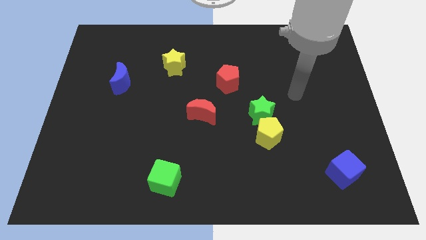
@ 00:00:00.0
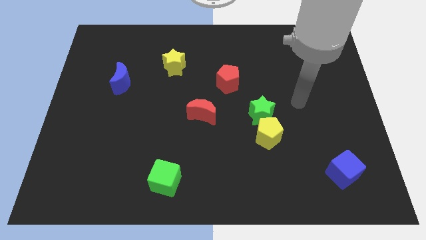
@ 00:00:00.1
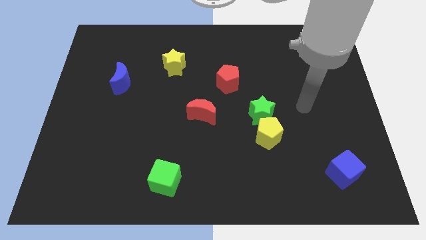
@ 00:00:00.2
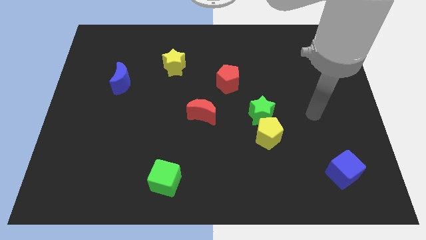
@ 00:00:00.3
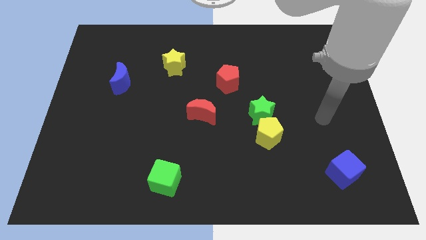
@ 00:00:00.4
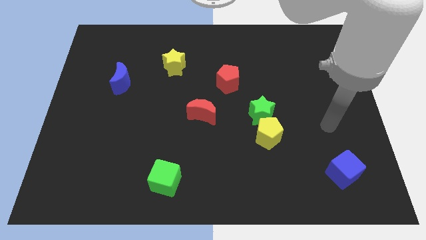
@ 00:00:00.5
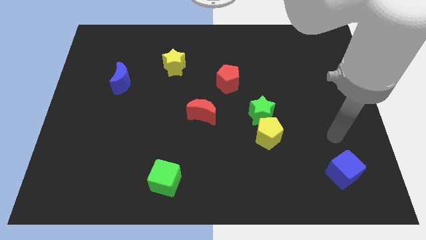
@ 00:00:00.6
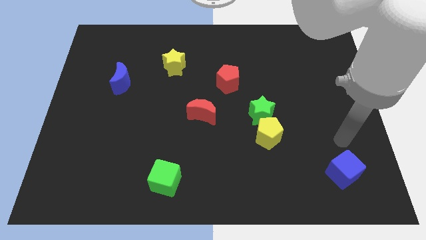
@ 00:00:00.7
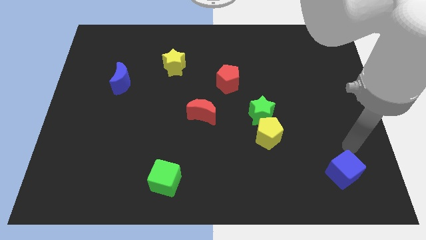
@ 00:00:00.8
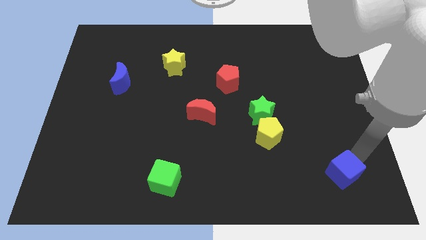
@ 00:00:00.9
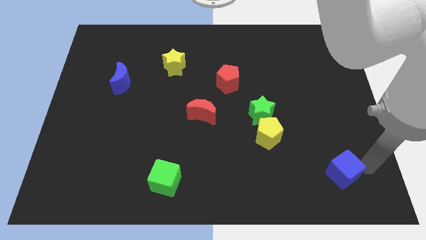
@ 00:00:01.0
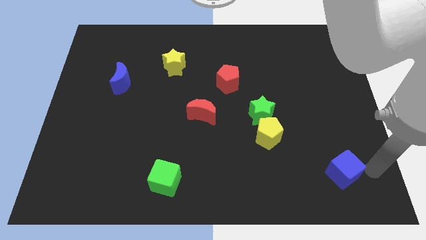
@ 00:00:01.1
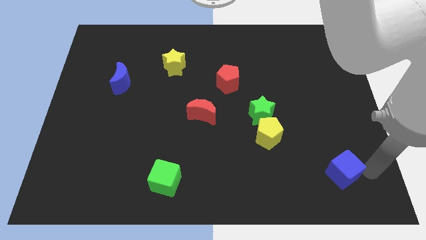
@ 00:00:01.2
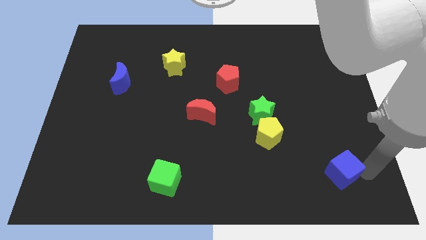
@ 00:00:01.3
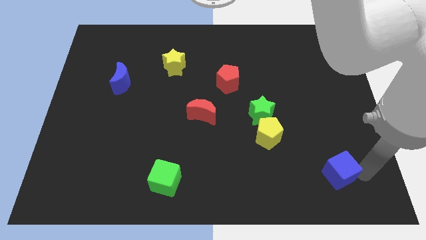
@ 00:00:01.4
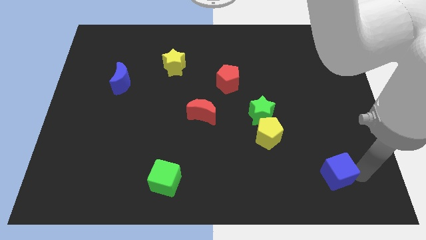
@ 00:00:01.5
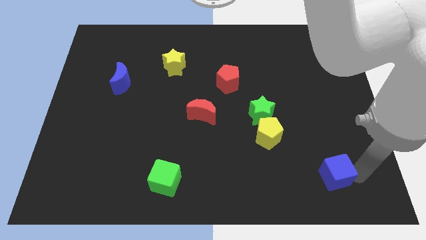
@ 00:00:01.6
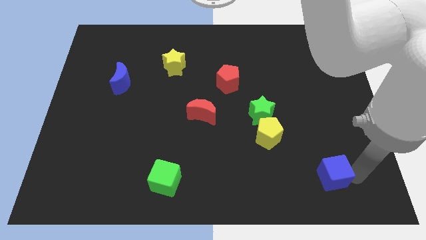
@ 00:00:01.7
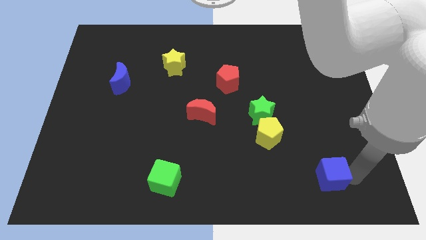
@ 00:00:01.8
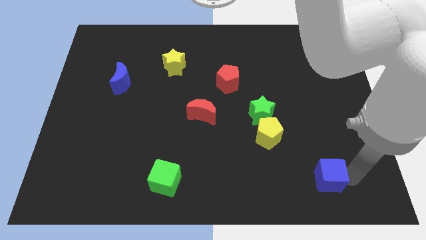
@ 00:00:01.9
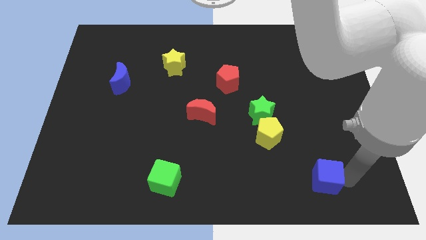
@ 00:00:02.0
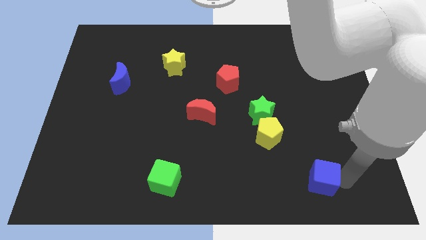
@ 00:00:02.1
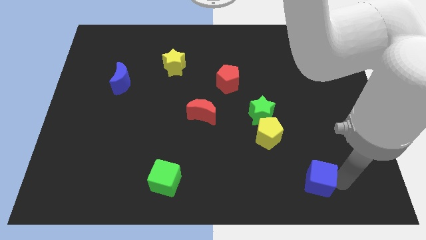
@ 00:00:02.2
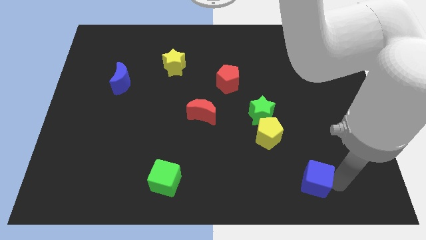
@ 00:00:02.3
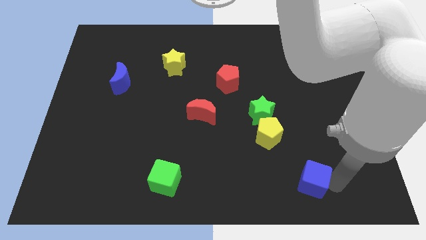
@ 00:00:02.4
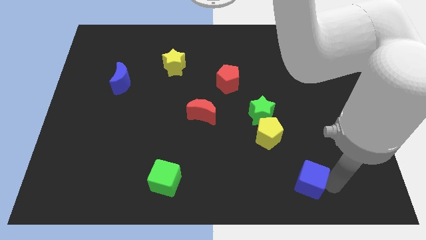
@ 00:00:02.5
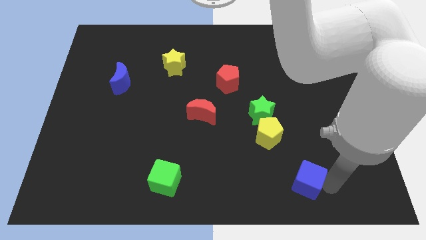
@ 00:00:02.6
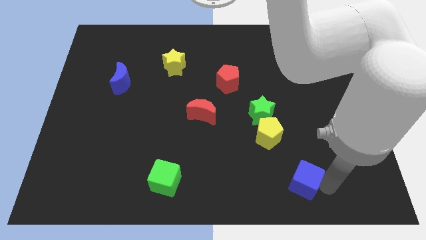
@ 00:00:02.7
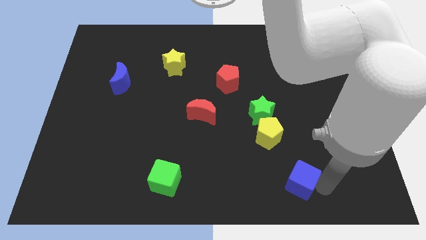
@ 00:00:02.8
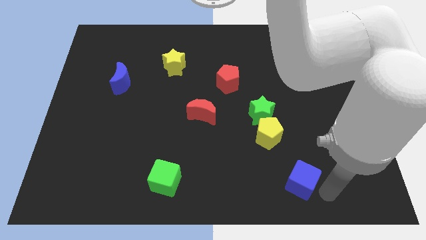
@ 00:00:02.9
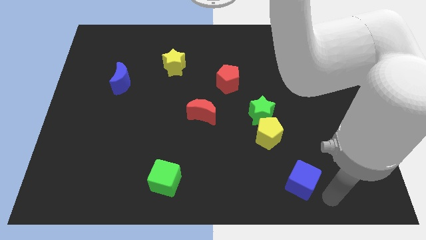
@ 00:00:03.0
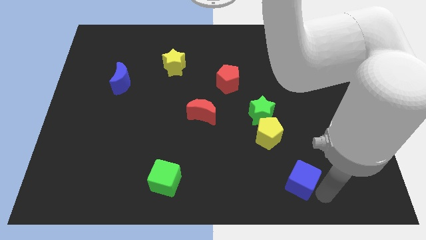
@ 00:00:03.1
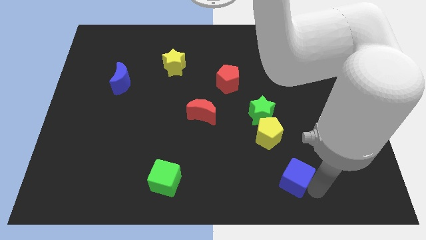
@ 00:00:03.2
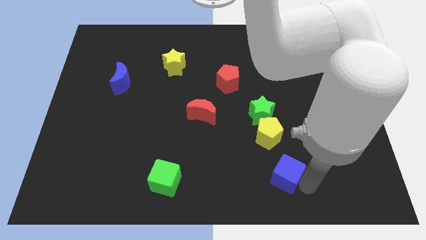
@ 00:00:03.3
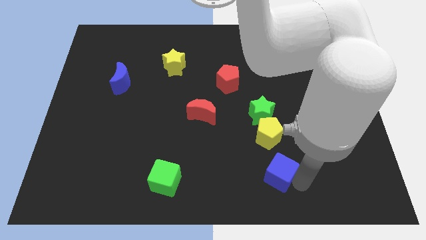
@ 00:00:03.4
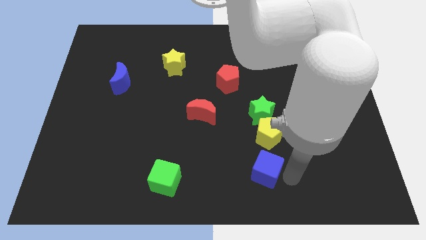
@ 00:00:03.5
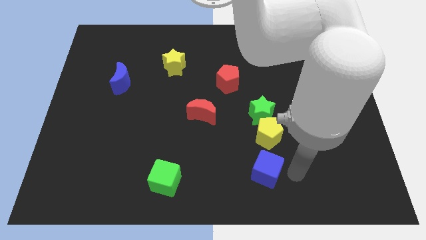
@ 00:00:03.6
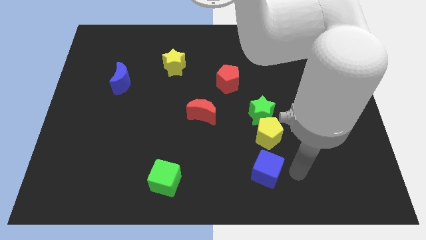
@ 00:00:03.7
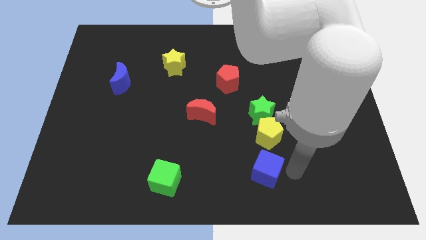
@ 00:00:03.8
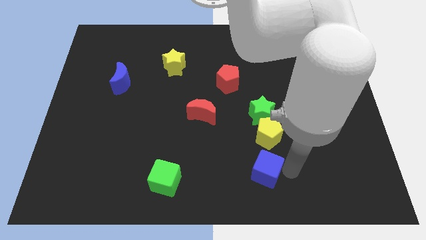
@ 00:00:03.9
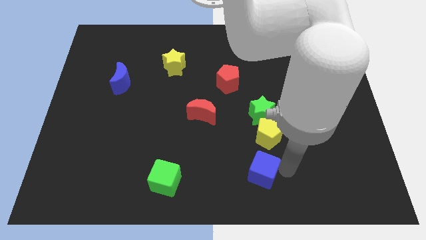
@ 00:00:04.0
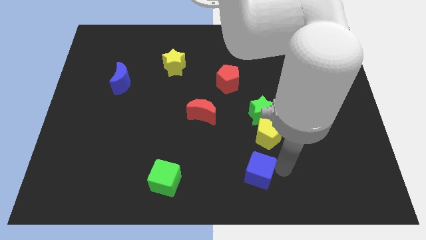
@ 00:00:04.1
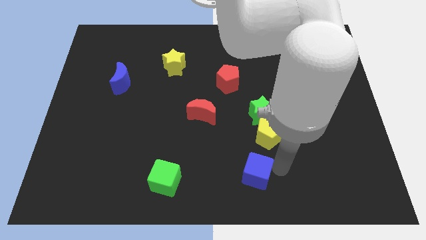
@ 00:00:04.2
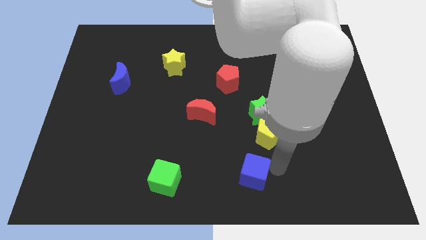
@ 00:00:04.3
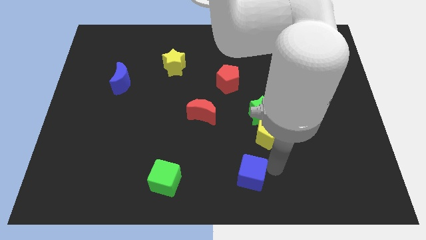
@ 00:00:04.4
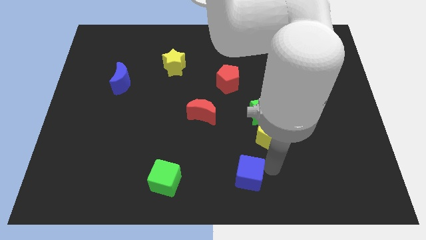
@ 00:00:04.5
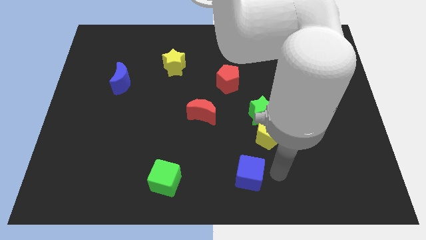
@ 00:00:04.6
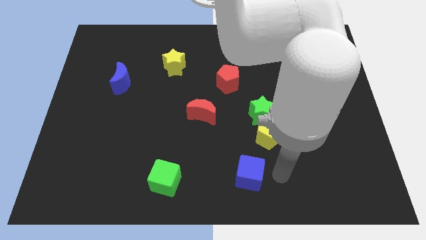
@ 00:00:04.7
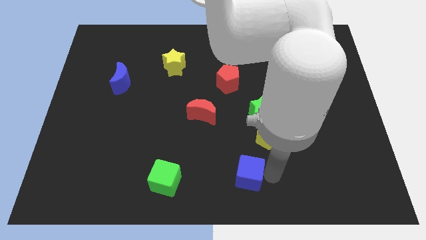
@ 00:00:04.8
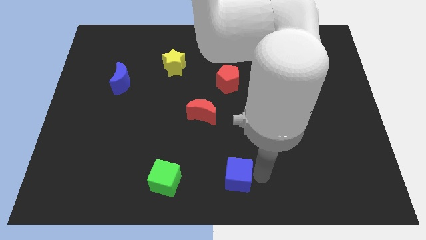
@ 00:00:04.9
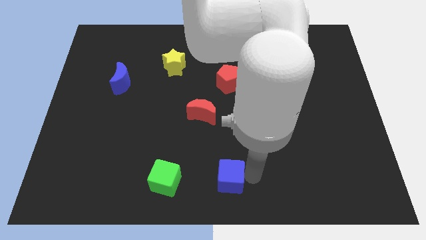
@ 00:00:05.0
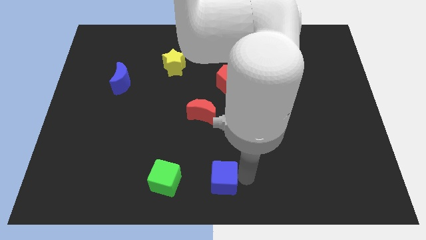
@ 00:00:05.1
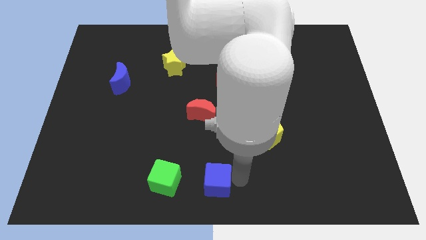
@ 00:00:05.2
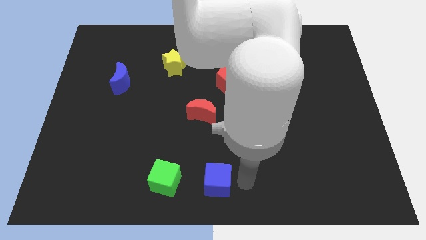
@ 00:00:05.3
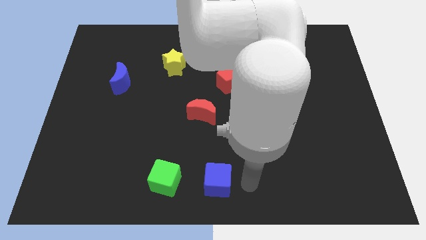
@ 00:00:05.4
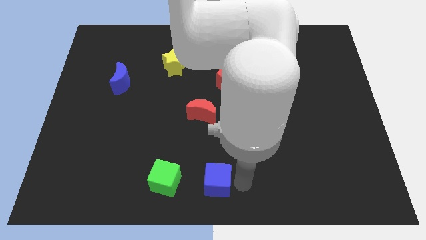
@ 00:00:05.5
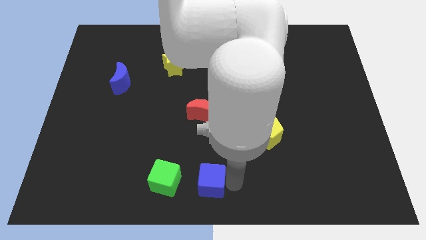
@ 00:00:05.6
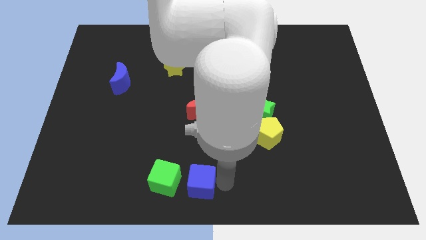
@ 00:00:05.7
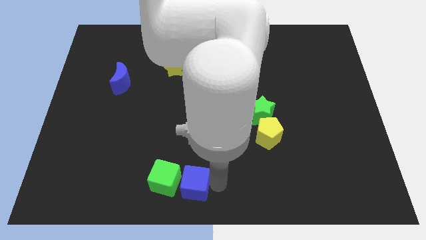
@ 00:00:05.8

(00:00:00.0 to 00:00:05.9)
push the blue cube towards the green cube

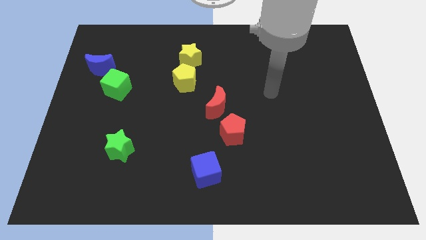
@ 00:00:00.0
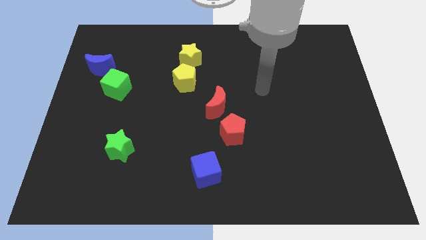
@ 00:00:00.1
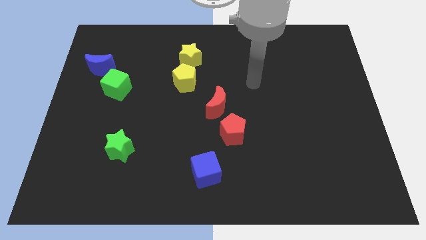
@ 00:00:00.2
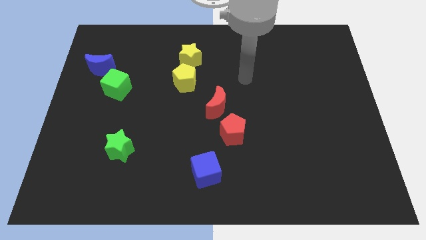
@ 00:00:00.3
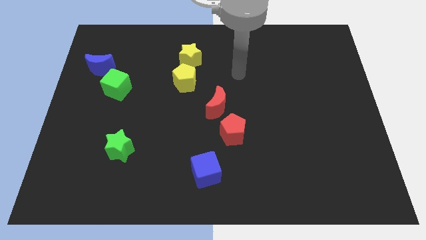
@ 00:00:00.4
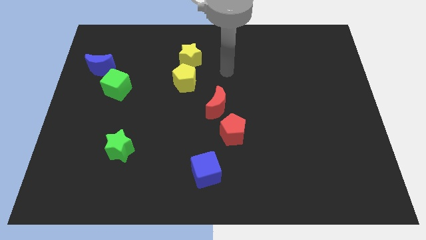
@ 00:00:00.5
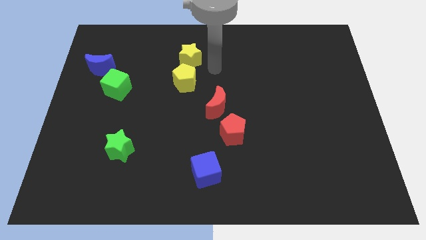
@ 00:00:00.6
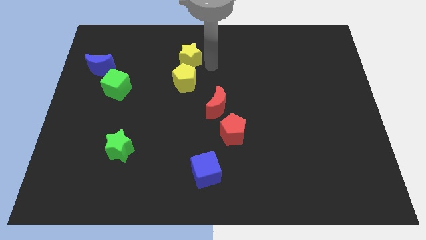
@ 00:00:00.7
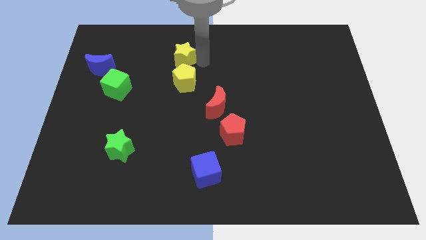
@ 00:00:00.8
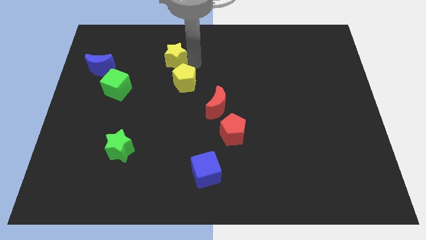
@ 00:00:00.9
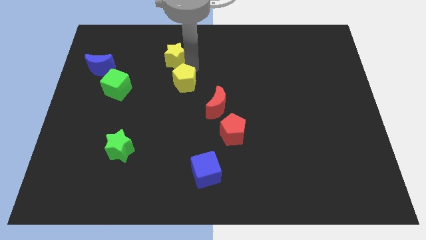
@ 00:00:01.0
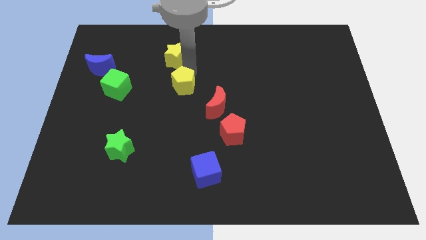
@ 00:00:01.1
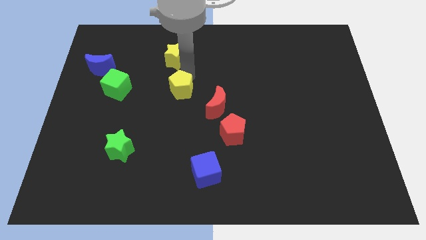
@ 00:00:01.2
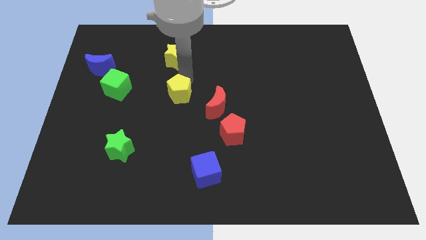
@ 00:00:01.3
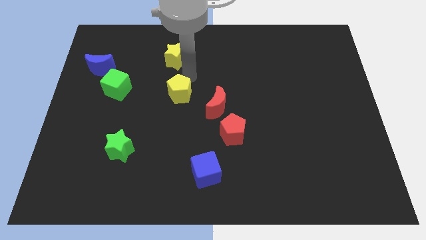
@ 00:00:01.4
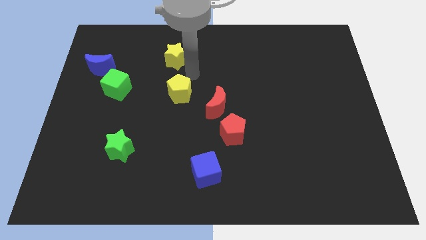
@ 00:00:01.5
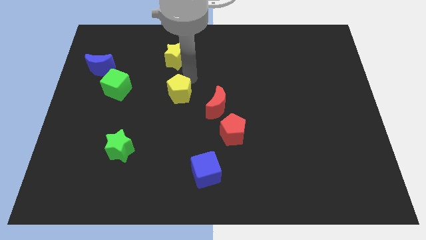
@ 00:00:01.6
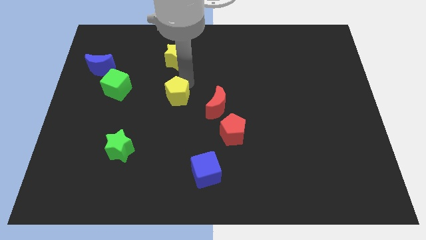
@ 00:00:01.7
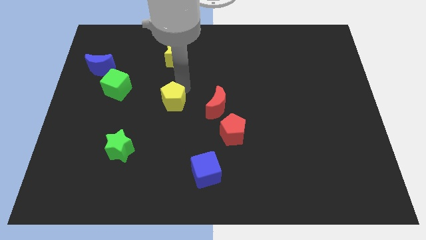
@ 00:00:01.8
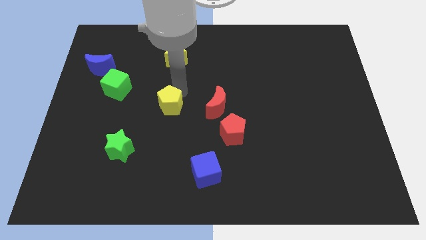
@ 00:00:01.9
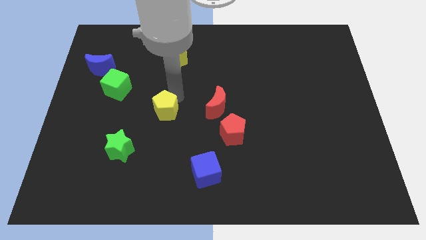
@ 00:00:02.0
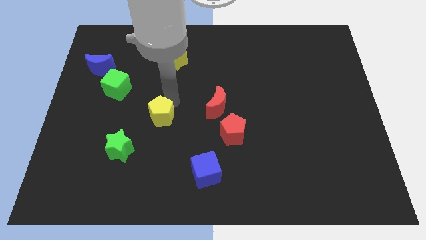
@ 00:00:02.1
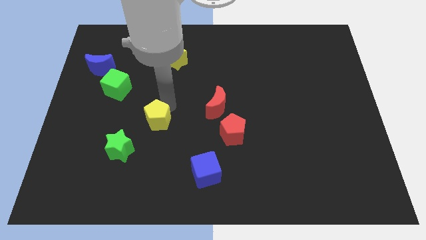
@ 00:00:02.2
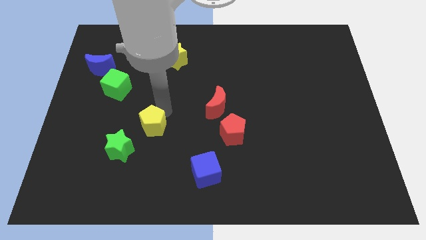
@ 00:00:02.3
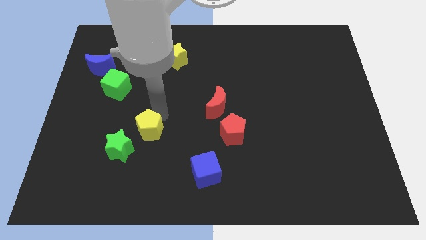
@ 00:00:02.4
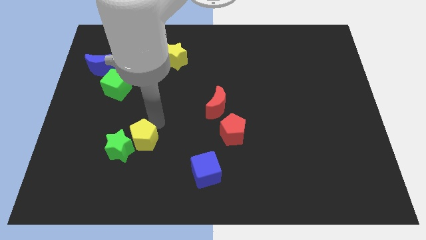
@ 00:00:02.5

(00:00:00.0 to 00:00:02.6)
push the yellow pentagon close to the green star
